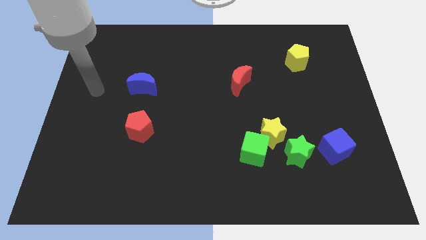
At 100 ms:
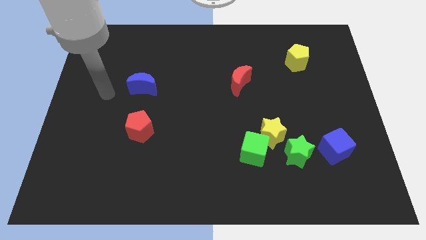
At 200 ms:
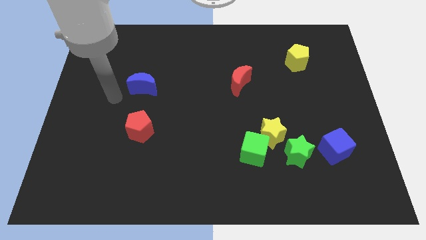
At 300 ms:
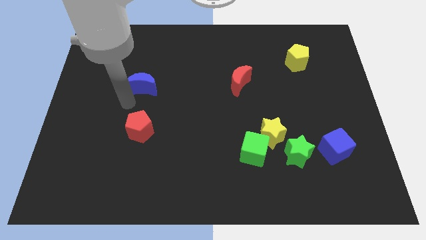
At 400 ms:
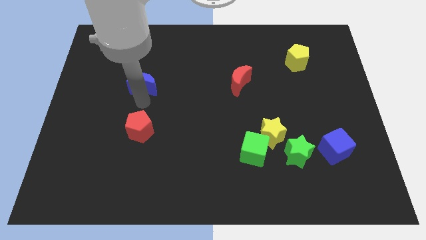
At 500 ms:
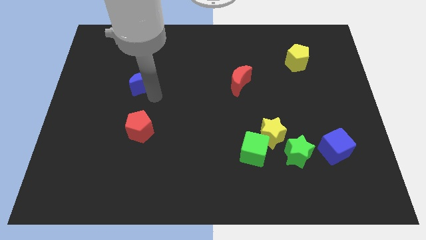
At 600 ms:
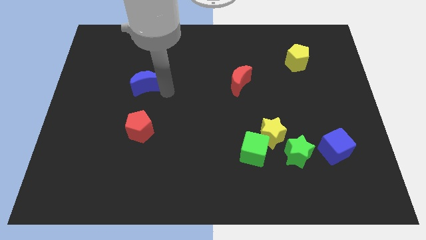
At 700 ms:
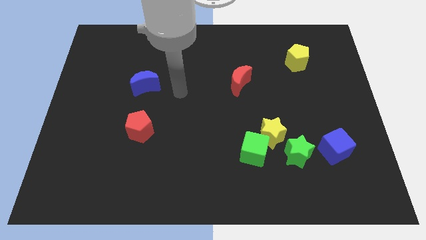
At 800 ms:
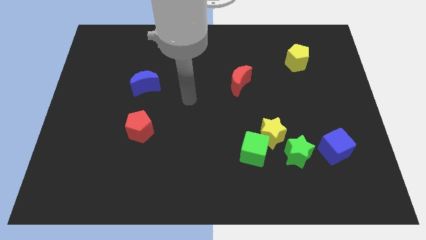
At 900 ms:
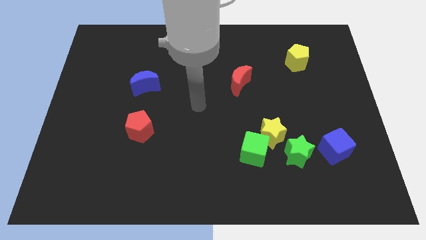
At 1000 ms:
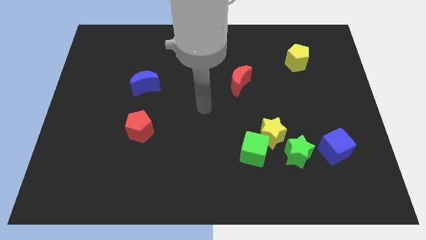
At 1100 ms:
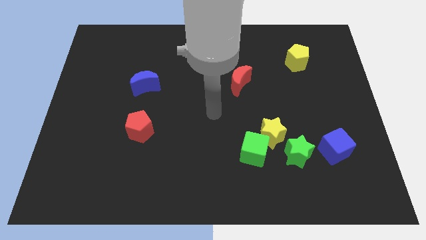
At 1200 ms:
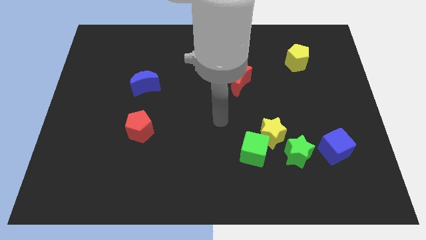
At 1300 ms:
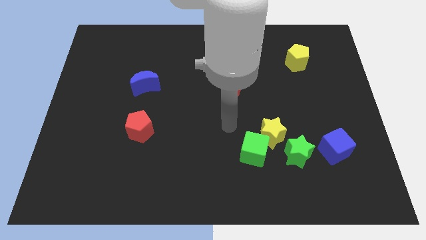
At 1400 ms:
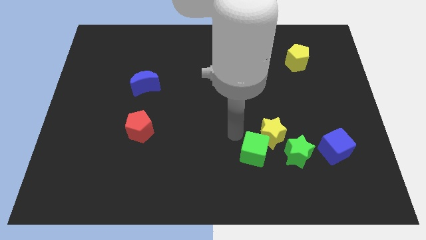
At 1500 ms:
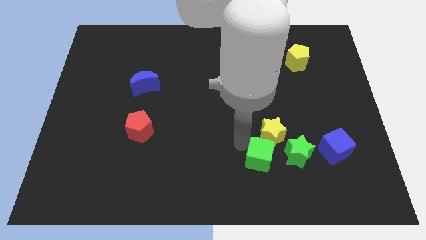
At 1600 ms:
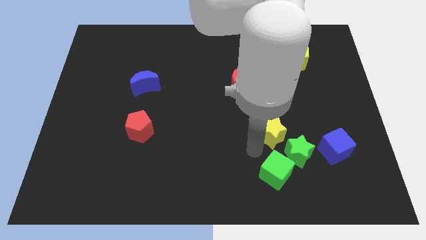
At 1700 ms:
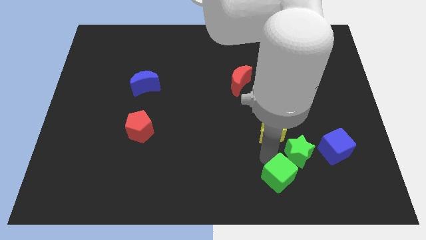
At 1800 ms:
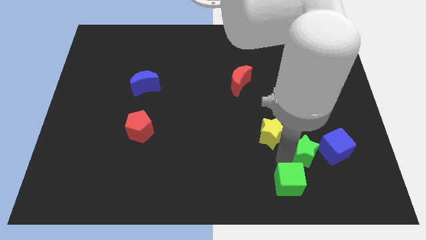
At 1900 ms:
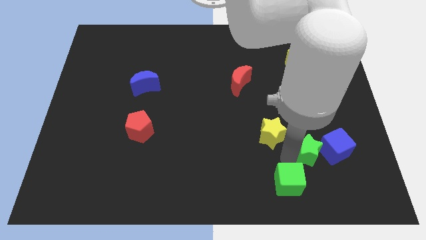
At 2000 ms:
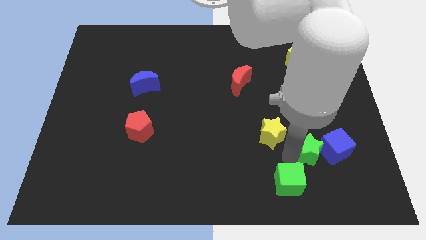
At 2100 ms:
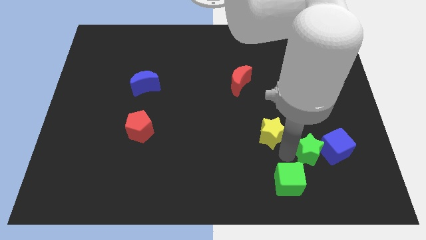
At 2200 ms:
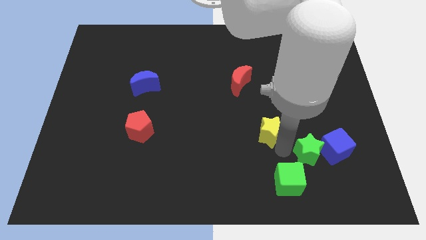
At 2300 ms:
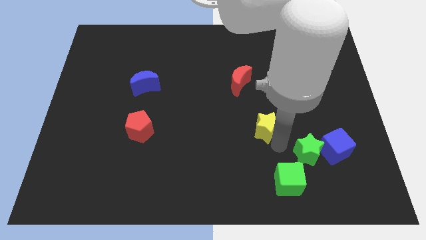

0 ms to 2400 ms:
separate the yellow star from the green cube and green star

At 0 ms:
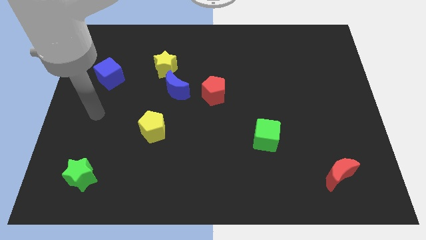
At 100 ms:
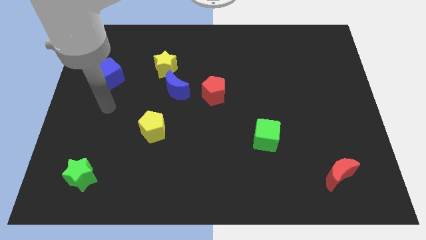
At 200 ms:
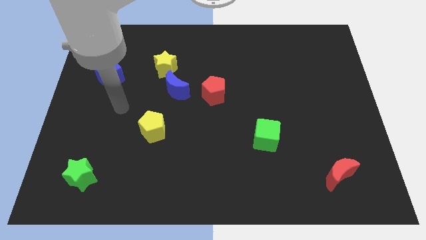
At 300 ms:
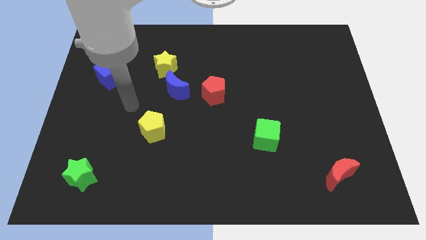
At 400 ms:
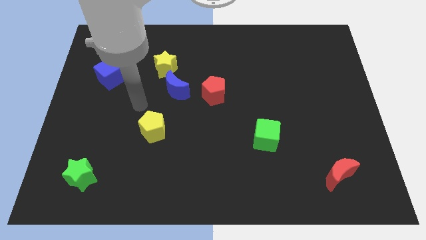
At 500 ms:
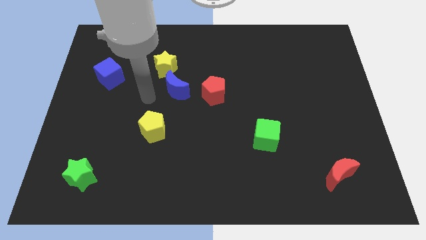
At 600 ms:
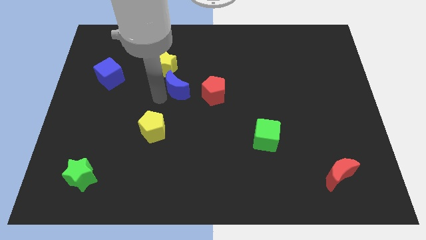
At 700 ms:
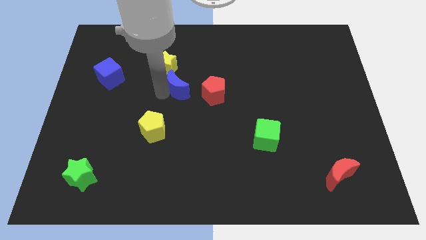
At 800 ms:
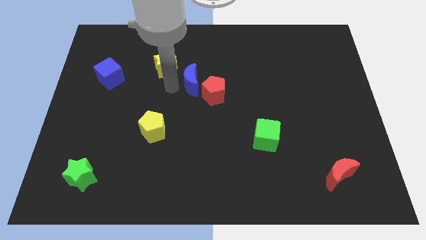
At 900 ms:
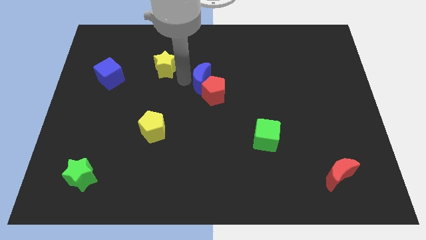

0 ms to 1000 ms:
move the yellow star away from the blue moon

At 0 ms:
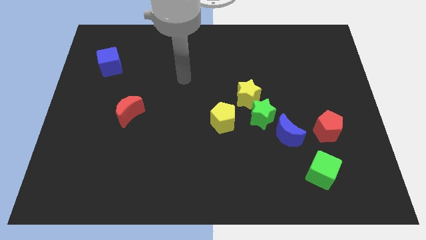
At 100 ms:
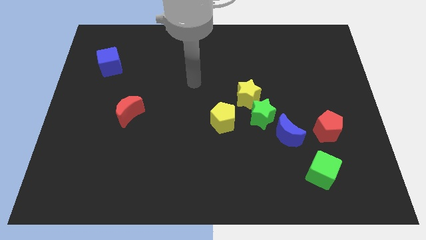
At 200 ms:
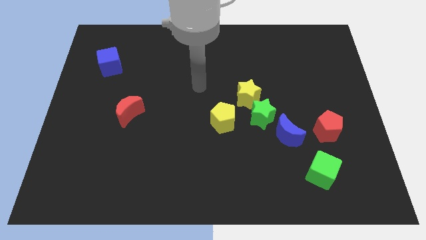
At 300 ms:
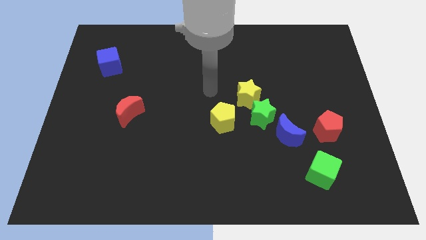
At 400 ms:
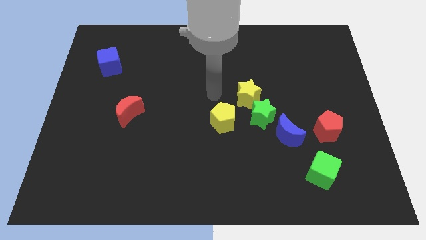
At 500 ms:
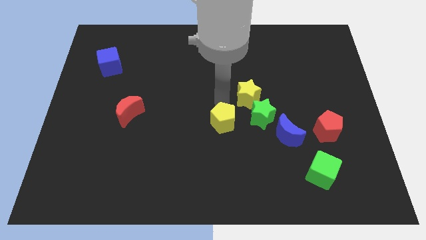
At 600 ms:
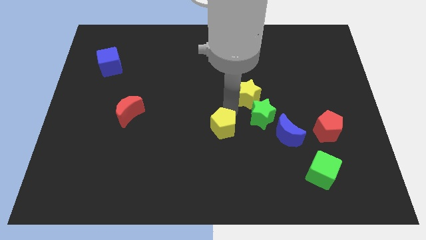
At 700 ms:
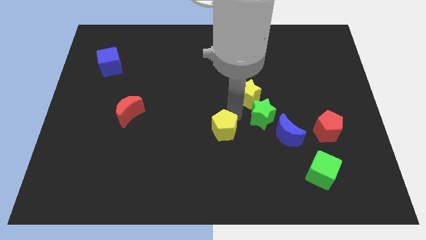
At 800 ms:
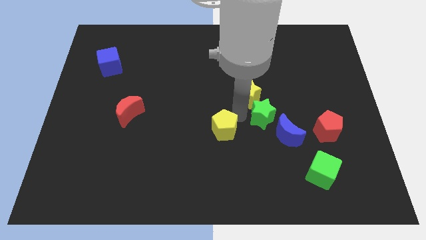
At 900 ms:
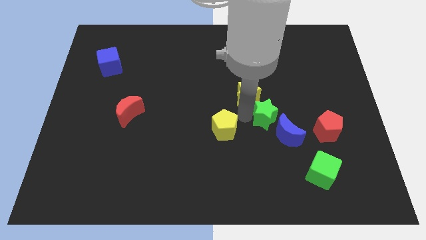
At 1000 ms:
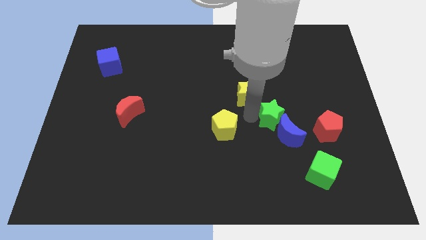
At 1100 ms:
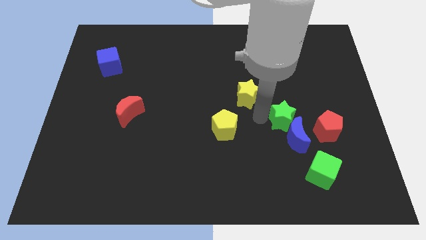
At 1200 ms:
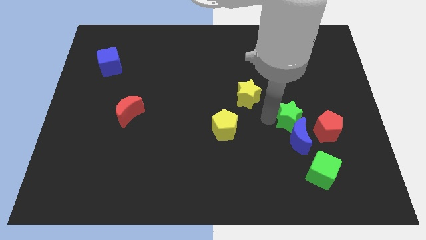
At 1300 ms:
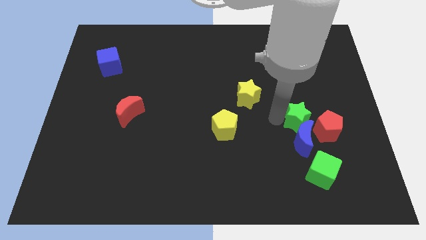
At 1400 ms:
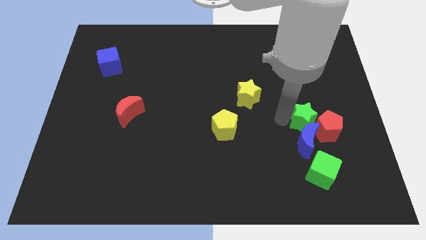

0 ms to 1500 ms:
separate the green star from the yellow star, blue moon, and yellow pentagon

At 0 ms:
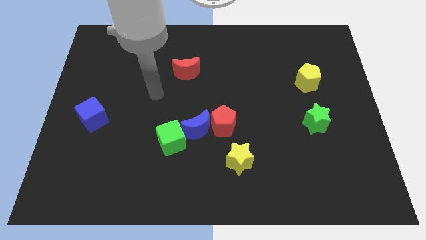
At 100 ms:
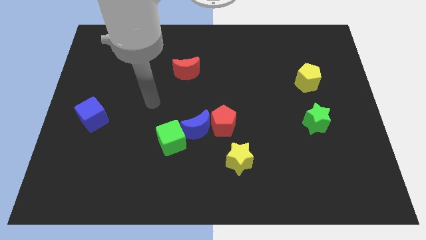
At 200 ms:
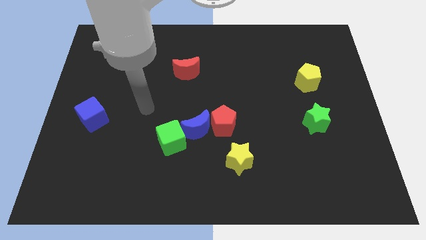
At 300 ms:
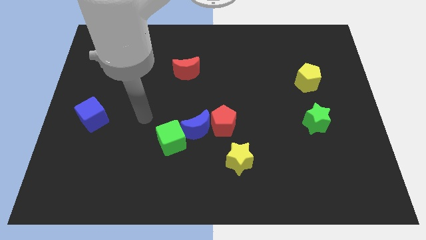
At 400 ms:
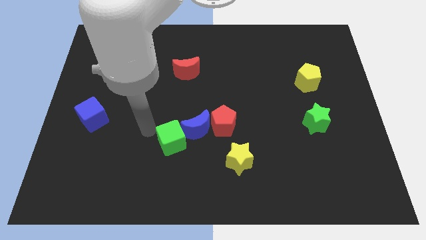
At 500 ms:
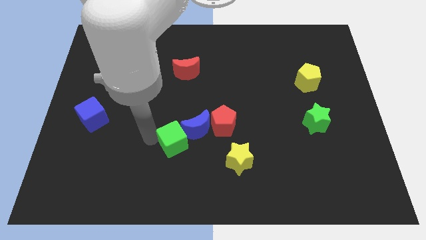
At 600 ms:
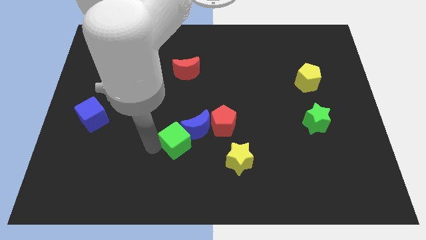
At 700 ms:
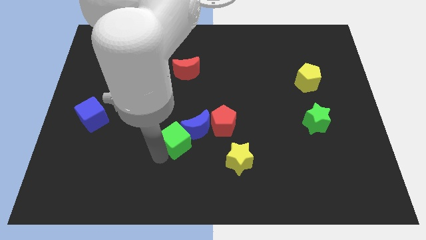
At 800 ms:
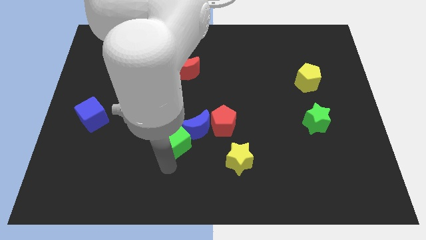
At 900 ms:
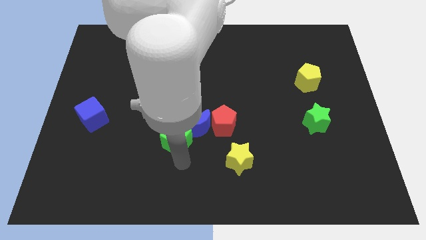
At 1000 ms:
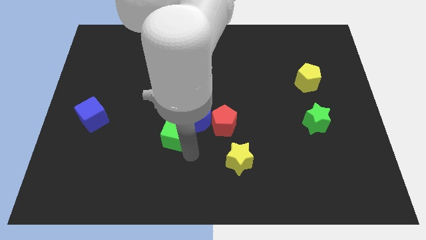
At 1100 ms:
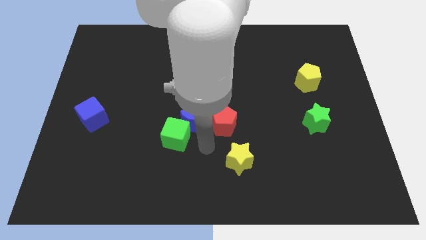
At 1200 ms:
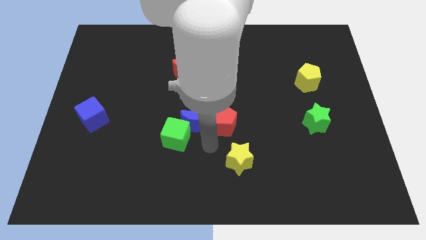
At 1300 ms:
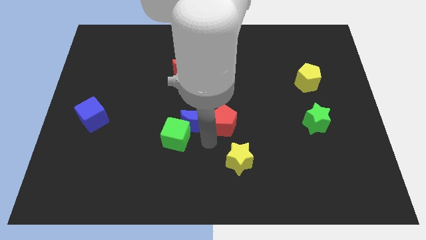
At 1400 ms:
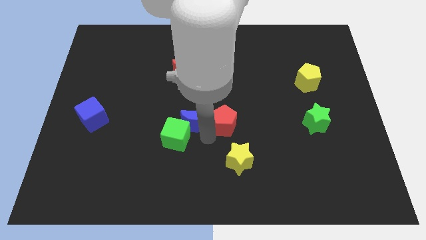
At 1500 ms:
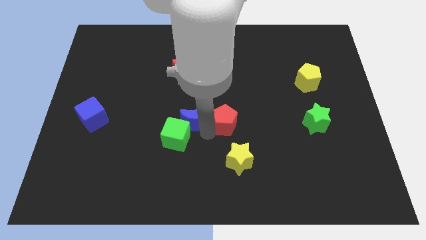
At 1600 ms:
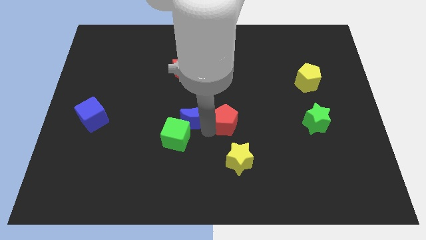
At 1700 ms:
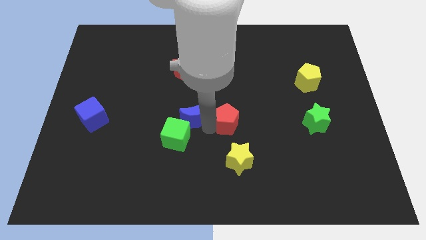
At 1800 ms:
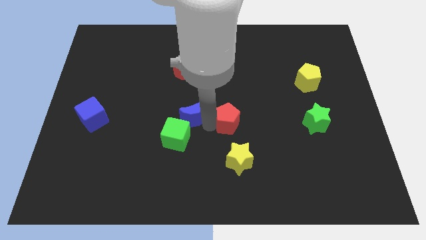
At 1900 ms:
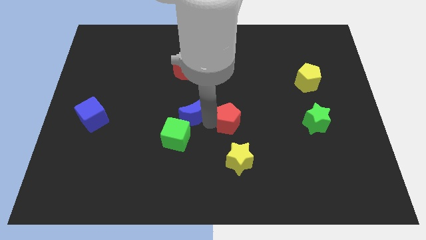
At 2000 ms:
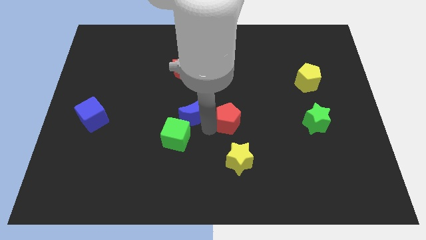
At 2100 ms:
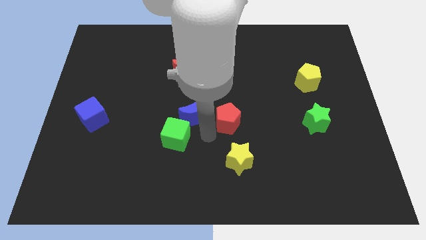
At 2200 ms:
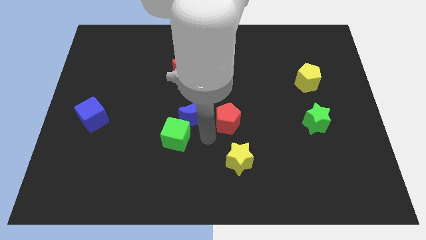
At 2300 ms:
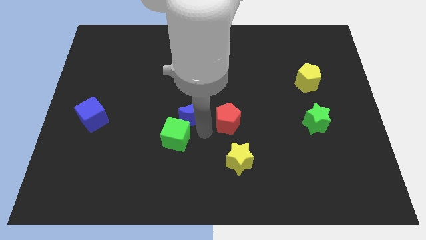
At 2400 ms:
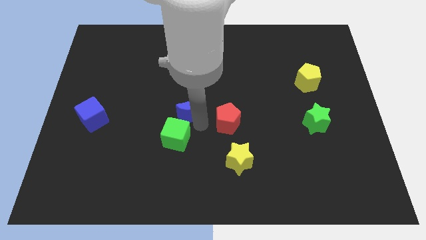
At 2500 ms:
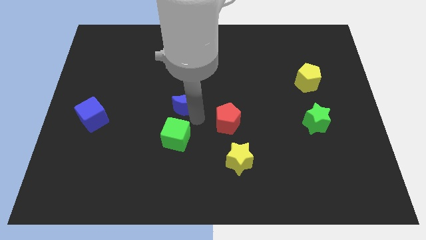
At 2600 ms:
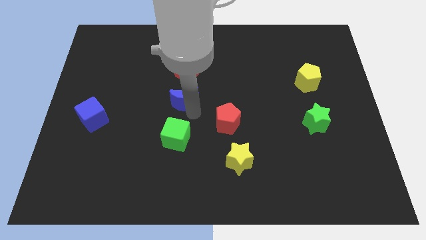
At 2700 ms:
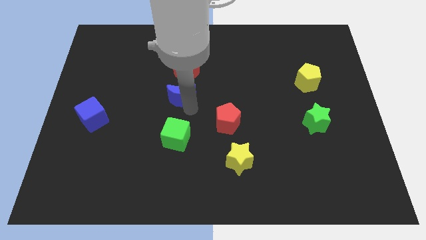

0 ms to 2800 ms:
move the blue moon away from the red pentagon and green cube

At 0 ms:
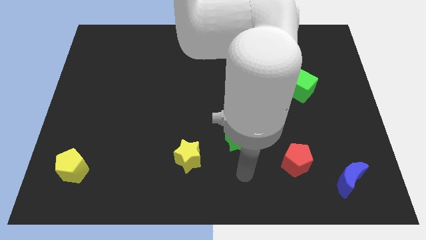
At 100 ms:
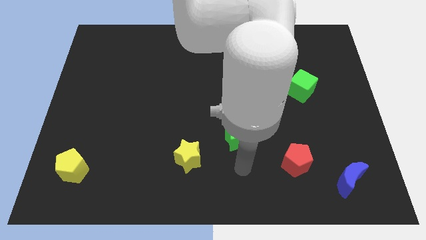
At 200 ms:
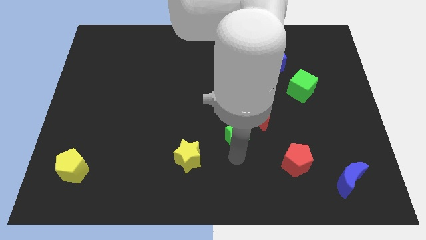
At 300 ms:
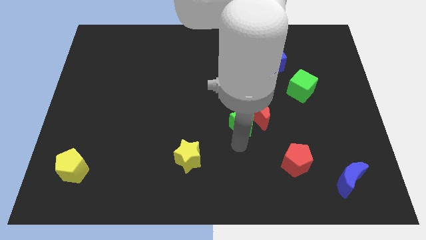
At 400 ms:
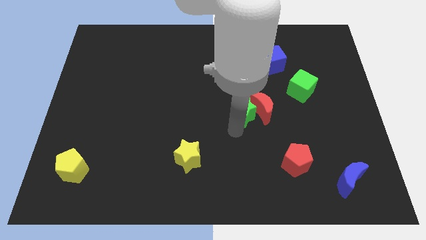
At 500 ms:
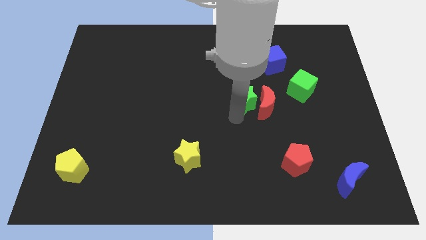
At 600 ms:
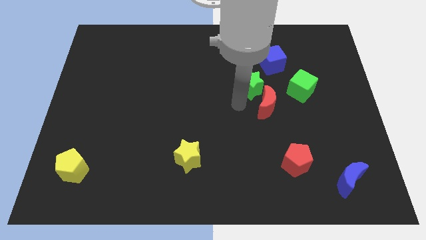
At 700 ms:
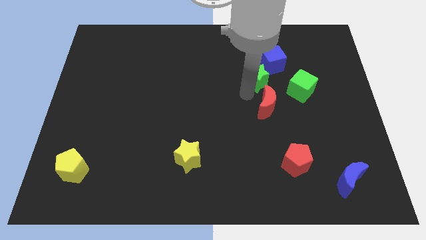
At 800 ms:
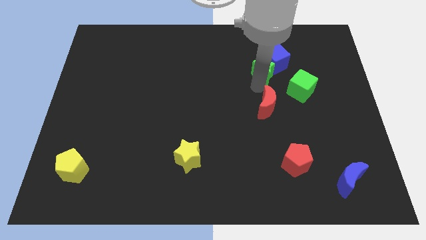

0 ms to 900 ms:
move the red moon away from the green star

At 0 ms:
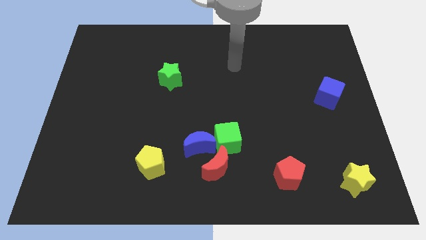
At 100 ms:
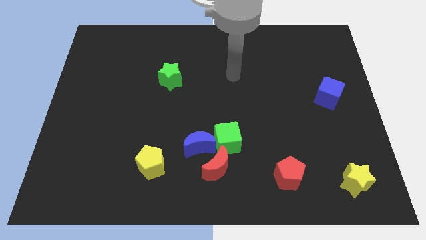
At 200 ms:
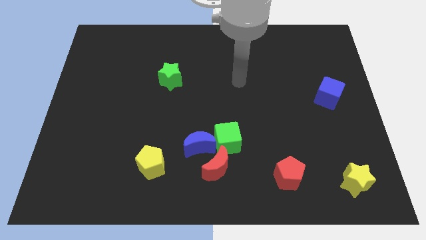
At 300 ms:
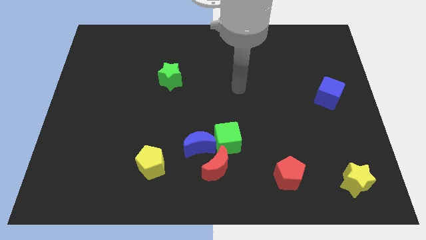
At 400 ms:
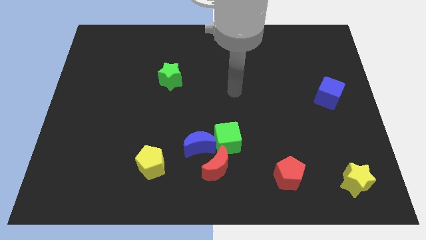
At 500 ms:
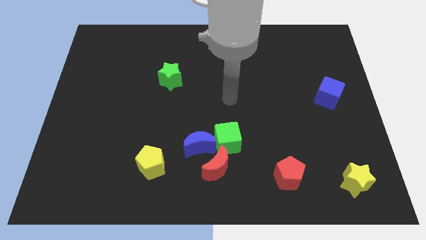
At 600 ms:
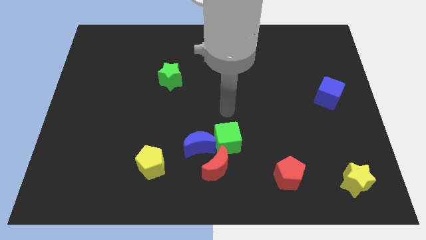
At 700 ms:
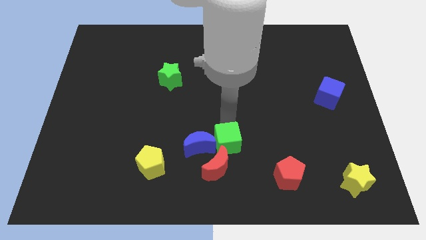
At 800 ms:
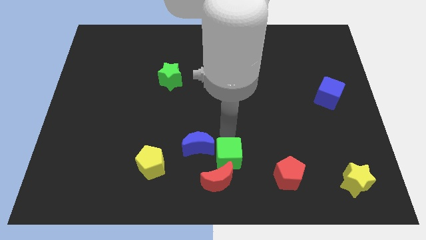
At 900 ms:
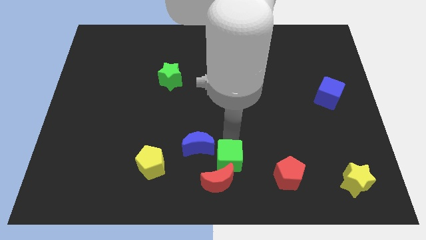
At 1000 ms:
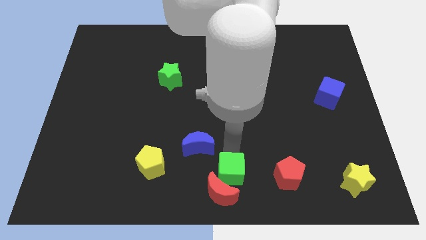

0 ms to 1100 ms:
pull the blue moon apart from the green cube and red moon
